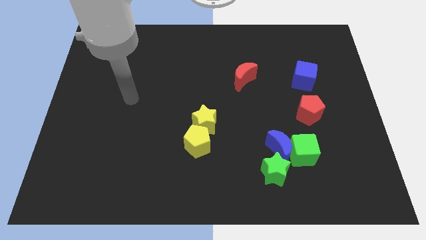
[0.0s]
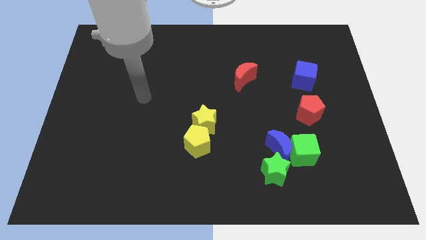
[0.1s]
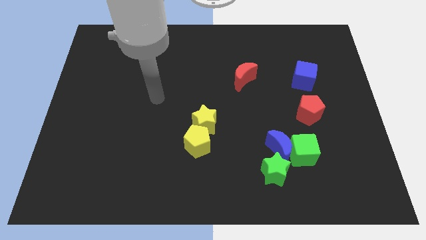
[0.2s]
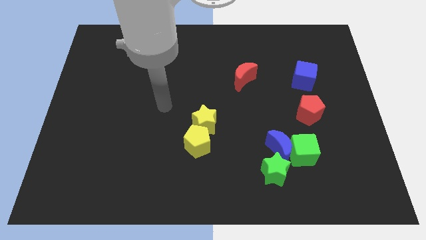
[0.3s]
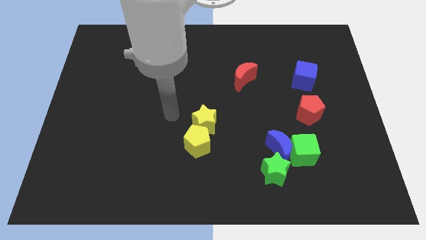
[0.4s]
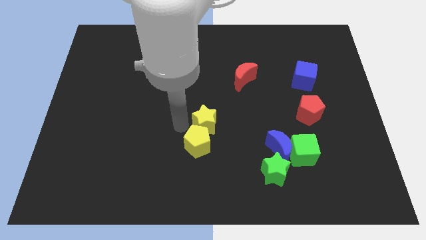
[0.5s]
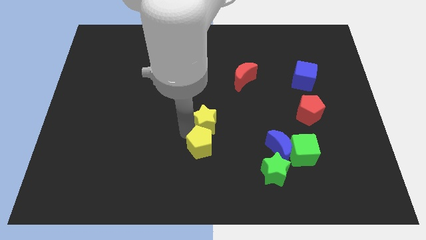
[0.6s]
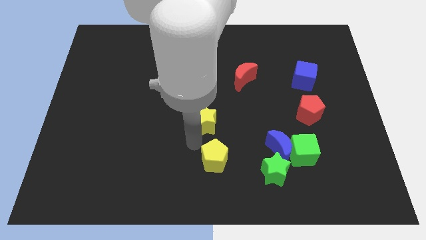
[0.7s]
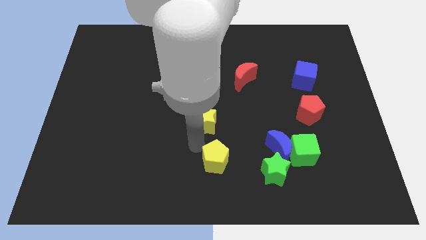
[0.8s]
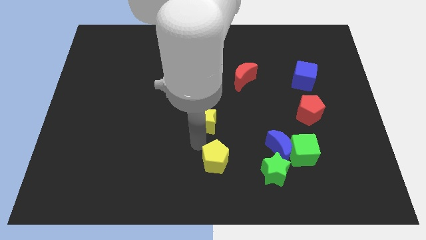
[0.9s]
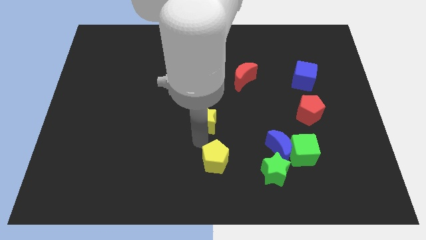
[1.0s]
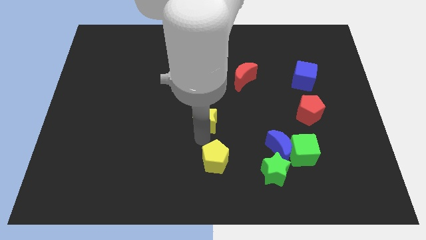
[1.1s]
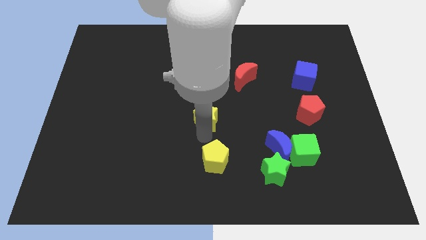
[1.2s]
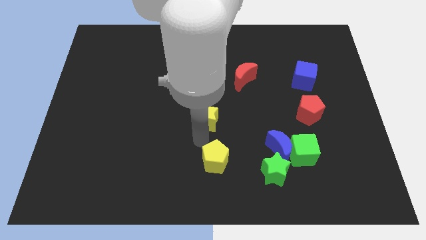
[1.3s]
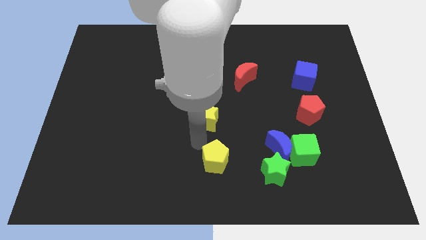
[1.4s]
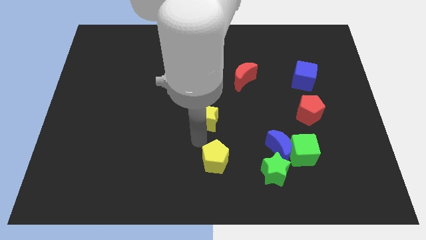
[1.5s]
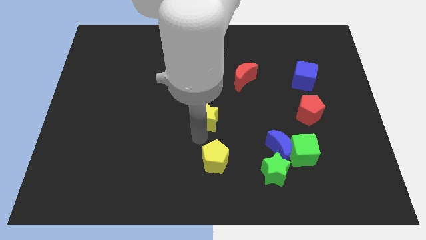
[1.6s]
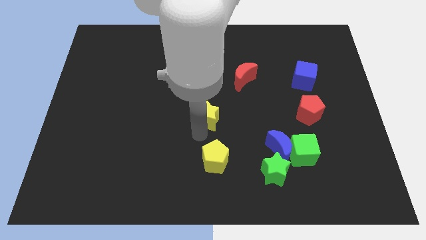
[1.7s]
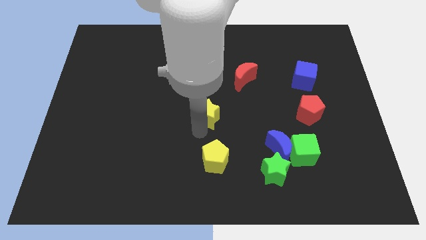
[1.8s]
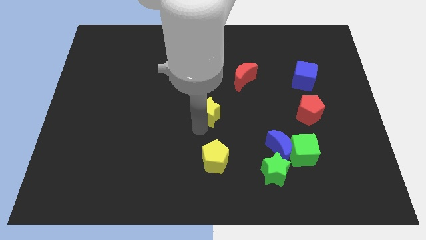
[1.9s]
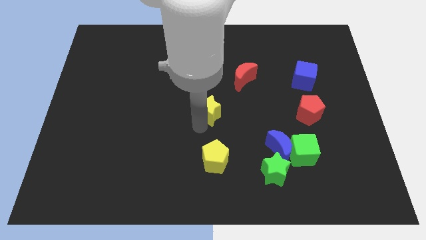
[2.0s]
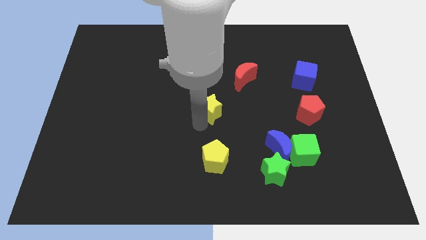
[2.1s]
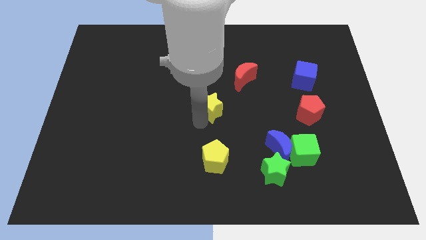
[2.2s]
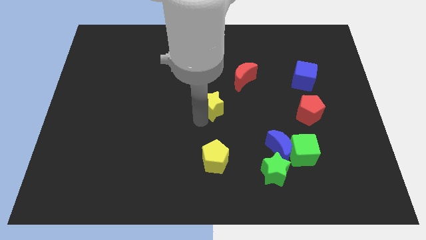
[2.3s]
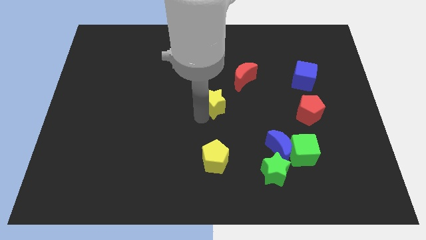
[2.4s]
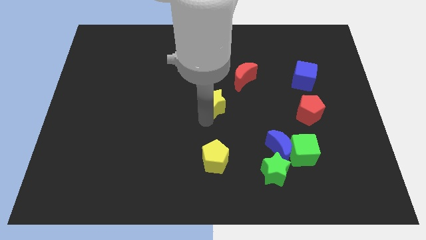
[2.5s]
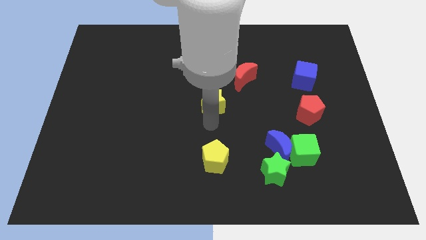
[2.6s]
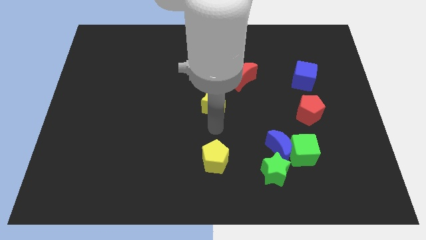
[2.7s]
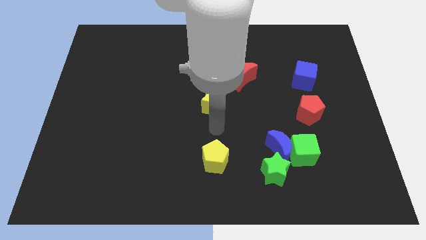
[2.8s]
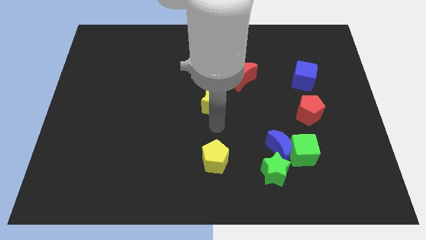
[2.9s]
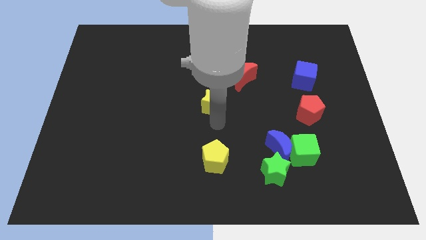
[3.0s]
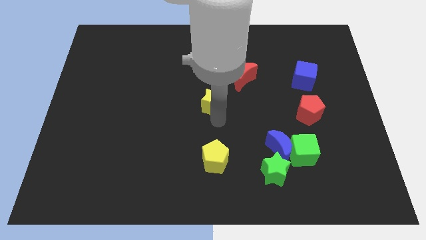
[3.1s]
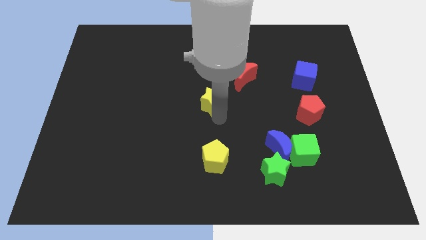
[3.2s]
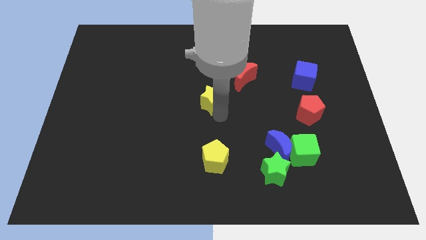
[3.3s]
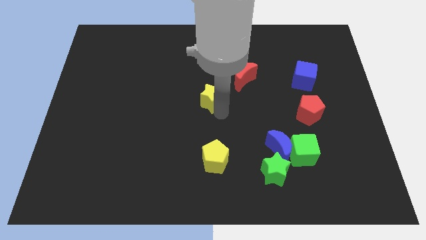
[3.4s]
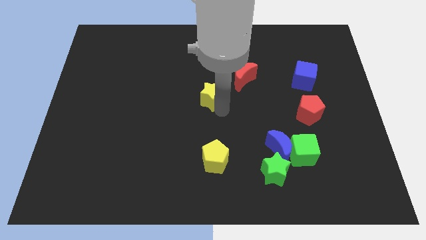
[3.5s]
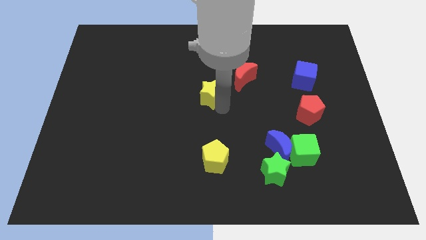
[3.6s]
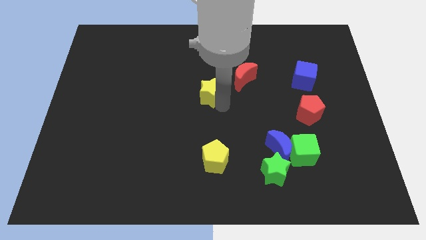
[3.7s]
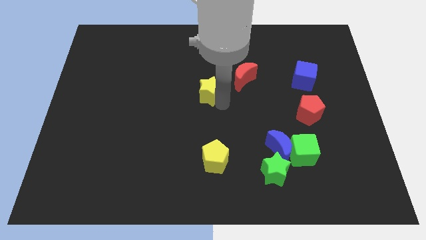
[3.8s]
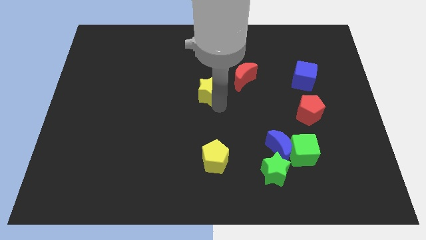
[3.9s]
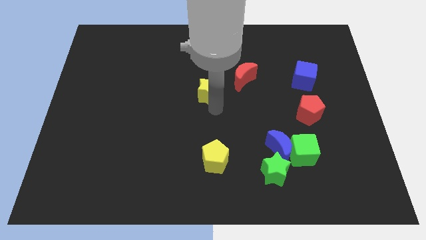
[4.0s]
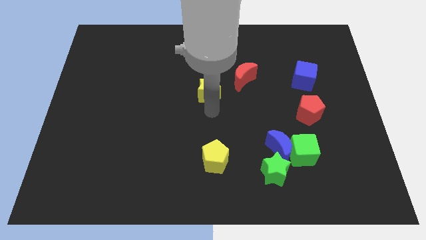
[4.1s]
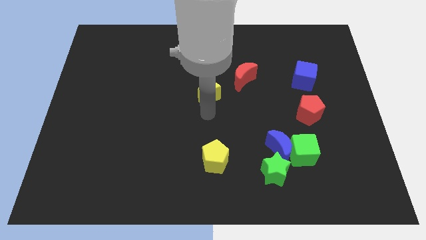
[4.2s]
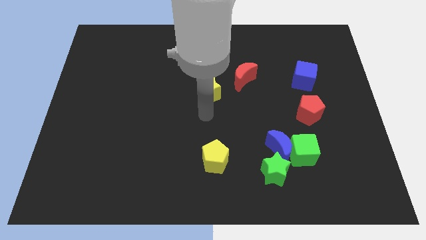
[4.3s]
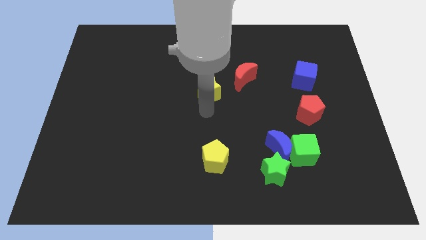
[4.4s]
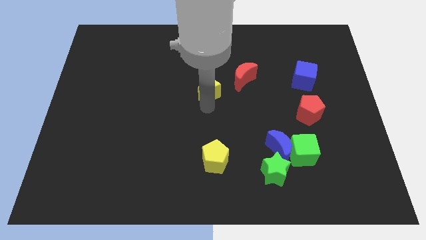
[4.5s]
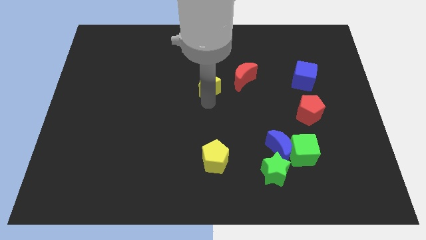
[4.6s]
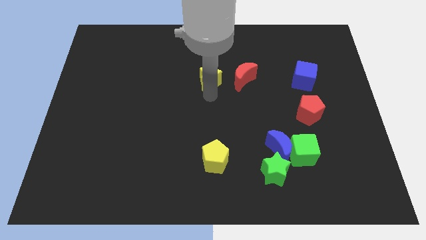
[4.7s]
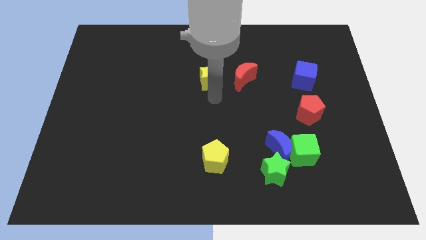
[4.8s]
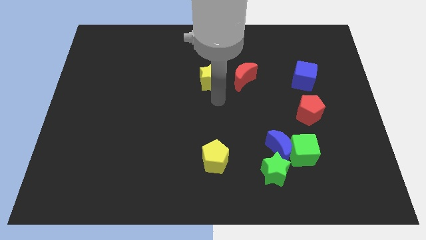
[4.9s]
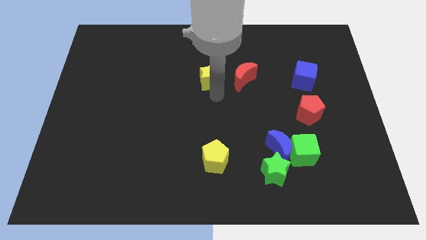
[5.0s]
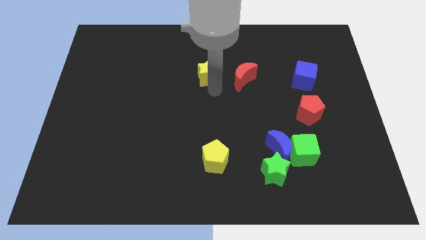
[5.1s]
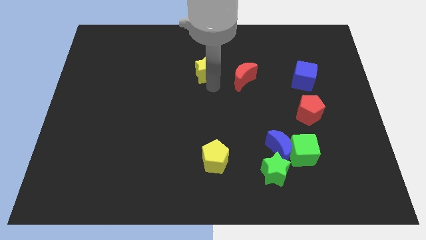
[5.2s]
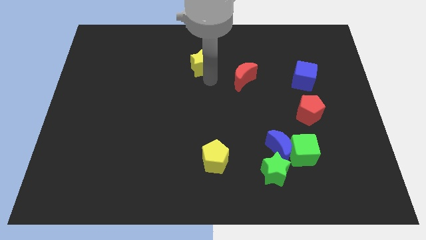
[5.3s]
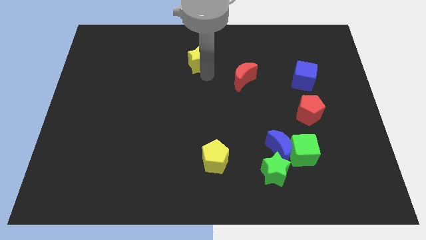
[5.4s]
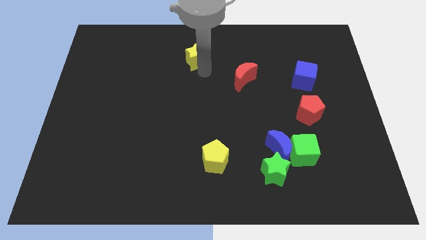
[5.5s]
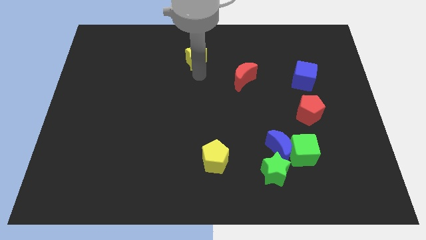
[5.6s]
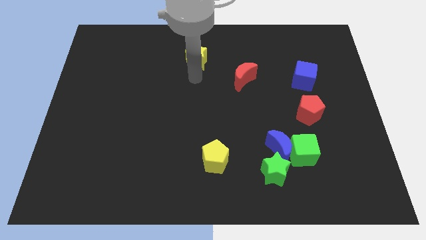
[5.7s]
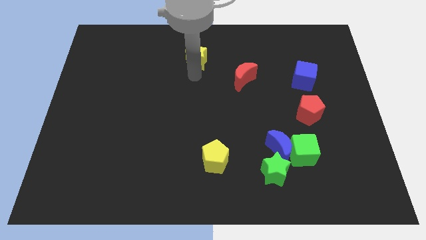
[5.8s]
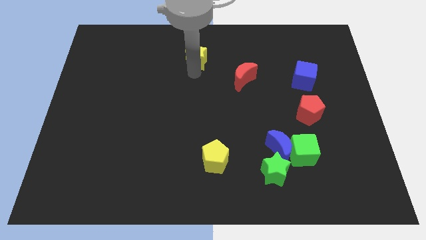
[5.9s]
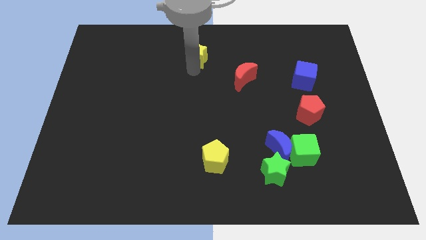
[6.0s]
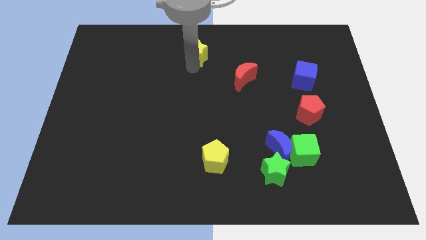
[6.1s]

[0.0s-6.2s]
push the yellow star to the top

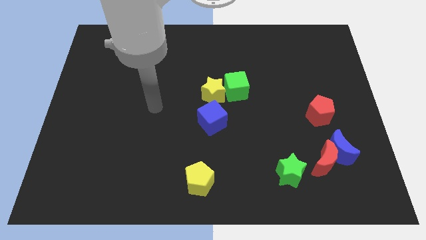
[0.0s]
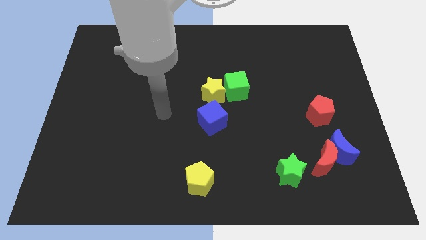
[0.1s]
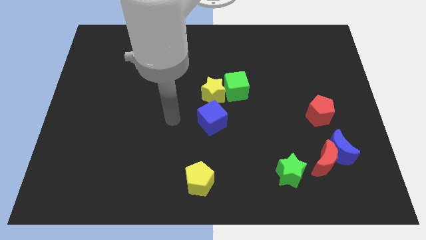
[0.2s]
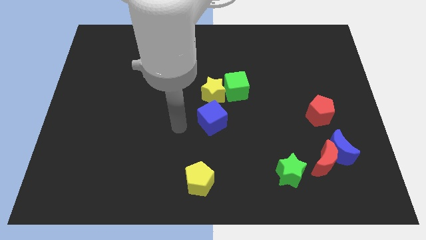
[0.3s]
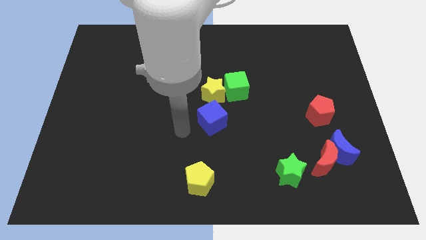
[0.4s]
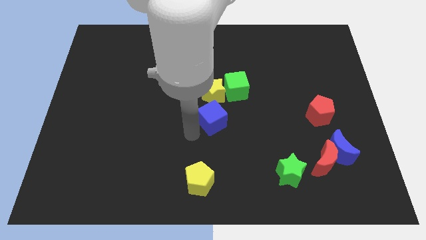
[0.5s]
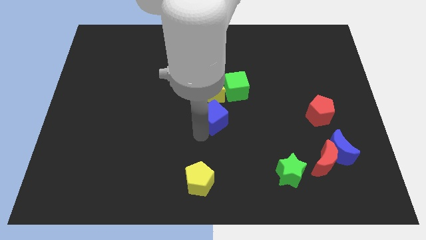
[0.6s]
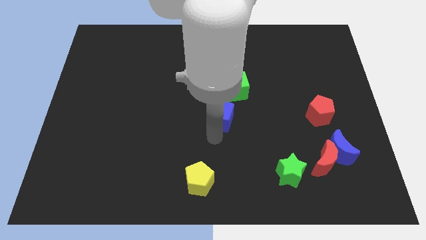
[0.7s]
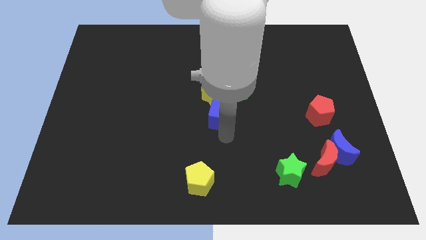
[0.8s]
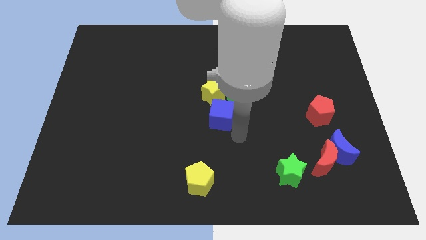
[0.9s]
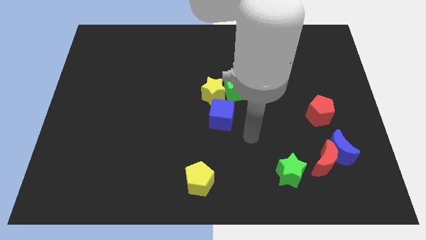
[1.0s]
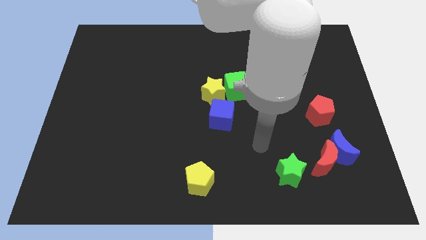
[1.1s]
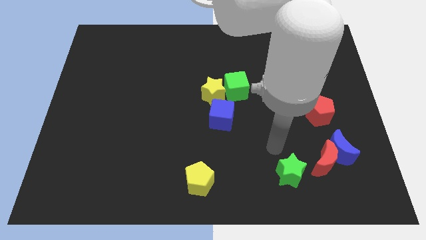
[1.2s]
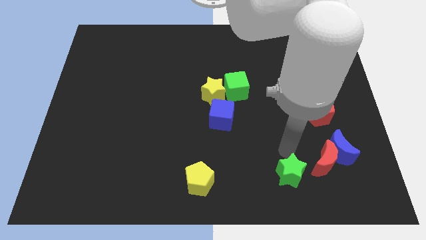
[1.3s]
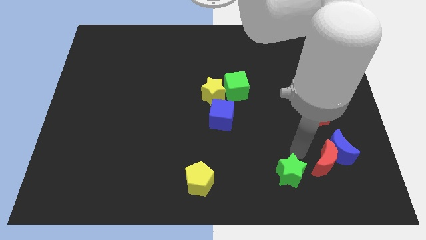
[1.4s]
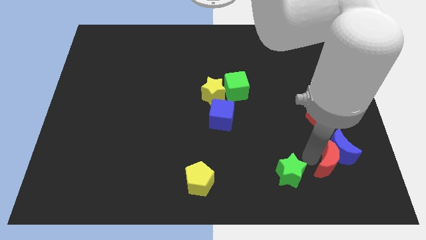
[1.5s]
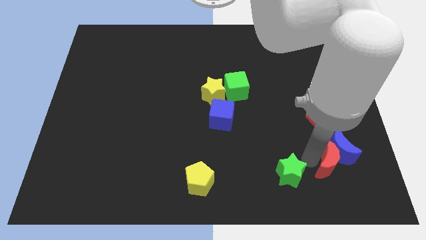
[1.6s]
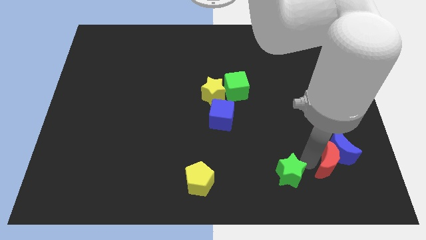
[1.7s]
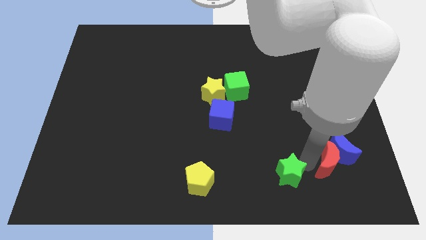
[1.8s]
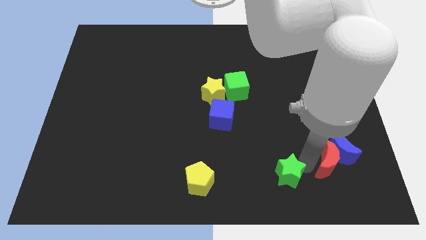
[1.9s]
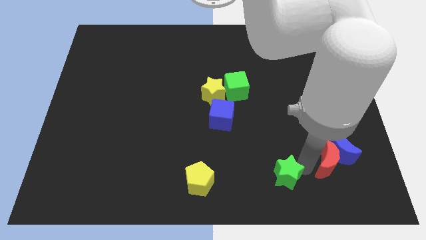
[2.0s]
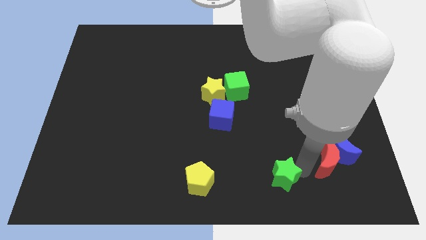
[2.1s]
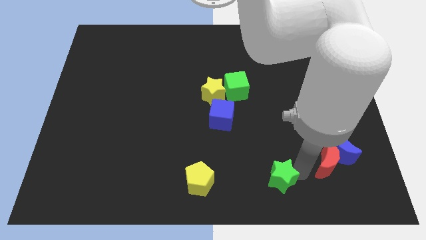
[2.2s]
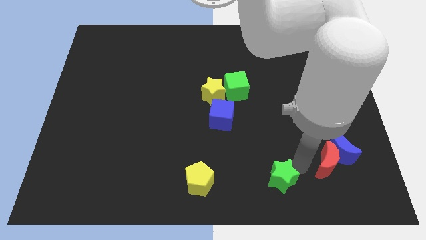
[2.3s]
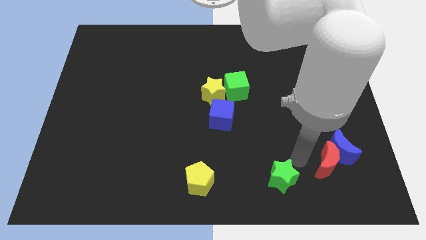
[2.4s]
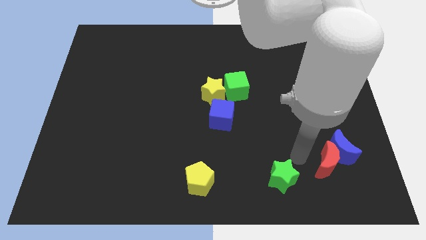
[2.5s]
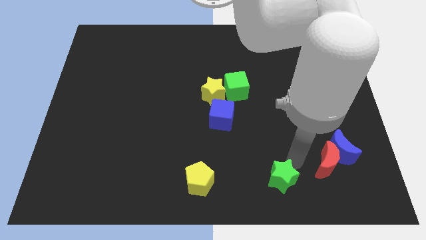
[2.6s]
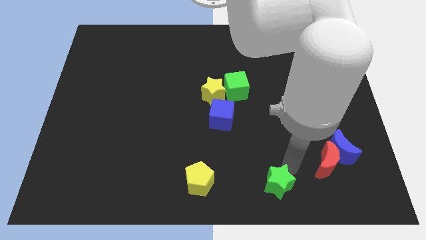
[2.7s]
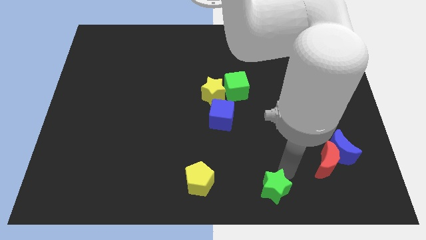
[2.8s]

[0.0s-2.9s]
push the green star to the bottom side
